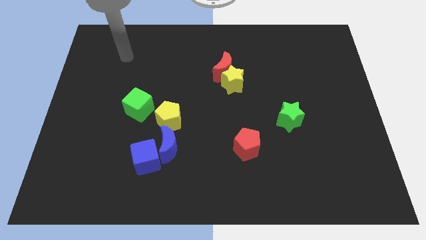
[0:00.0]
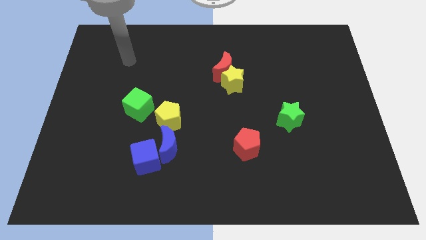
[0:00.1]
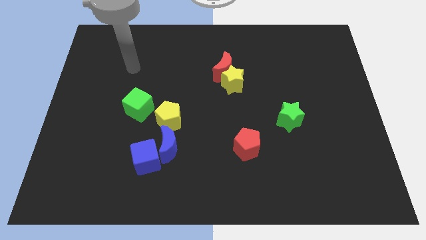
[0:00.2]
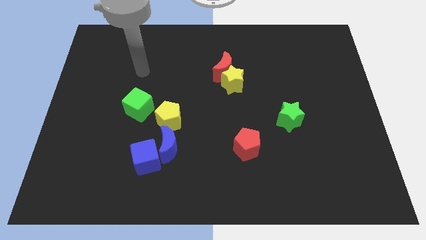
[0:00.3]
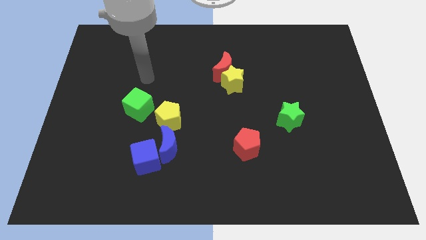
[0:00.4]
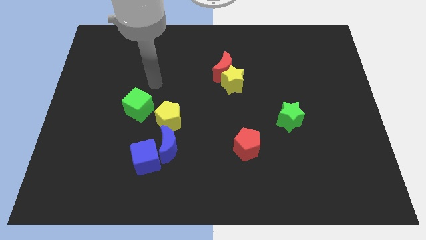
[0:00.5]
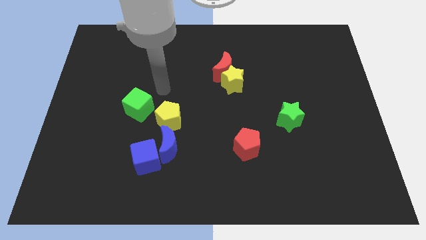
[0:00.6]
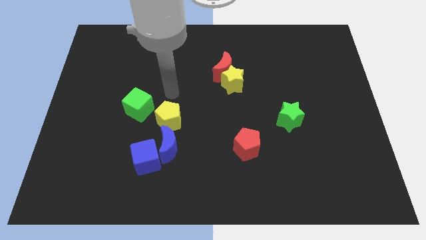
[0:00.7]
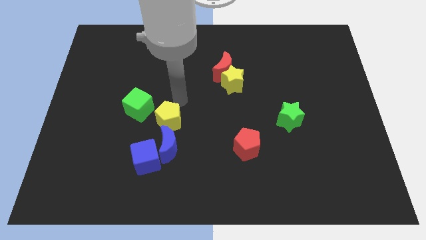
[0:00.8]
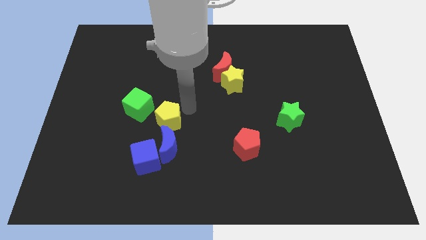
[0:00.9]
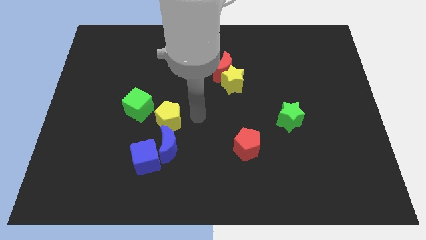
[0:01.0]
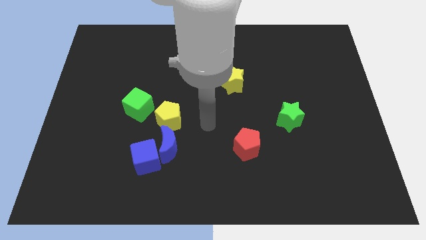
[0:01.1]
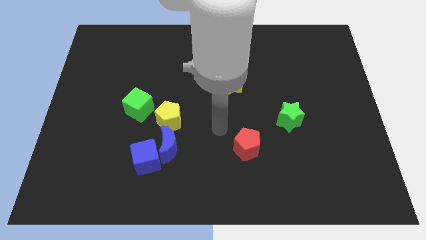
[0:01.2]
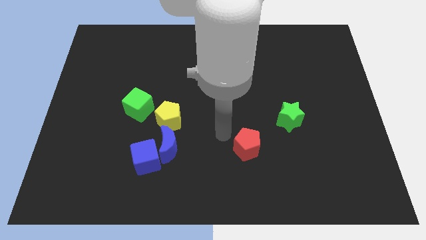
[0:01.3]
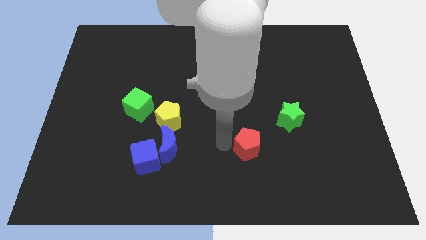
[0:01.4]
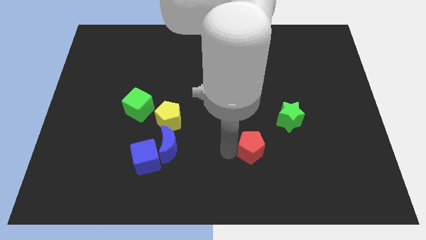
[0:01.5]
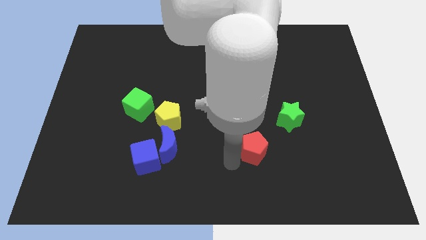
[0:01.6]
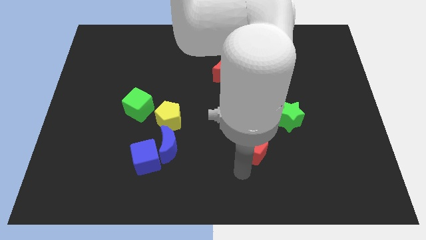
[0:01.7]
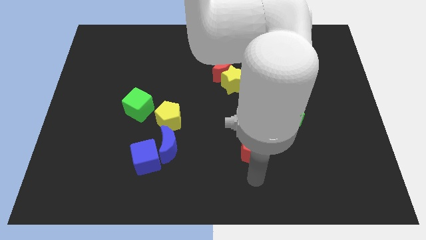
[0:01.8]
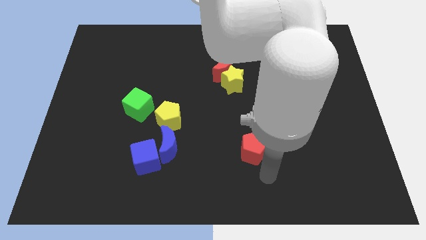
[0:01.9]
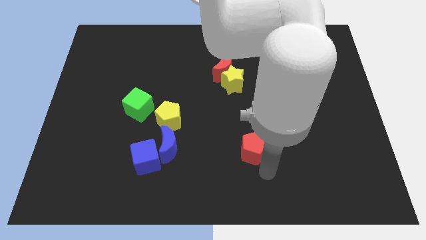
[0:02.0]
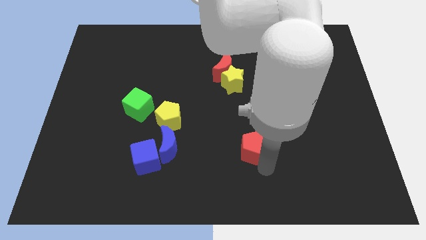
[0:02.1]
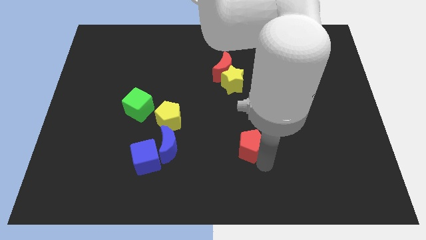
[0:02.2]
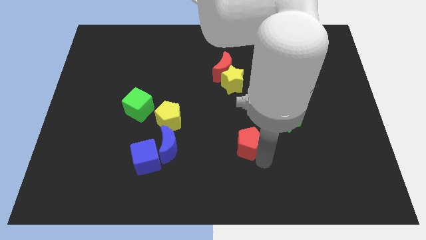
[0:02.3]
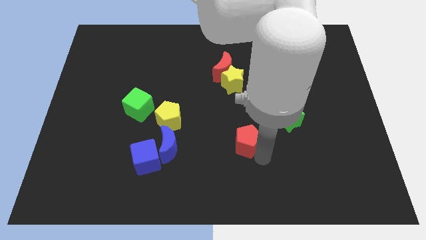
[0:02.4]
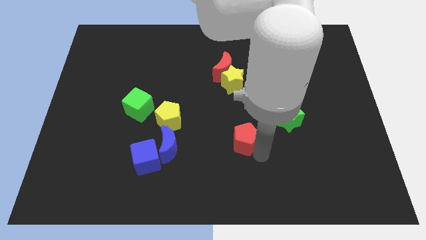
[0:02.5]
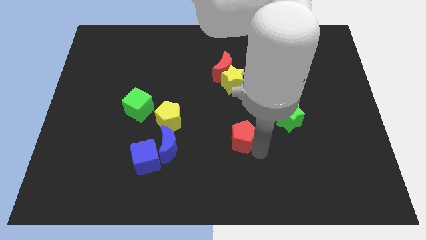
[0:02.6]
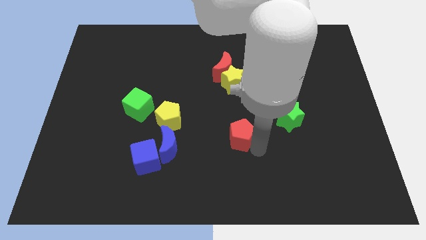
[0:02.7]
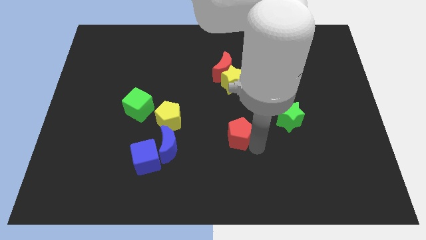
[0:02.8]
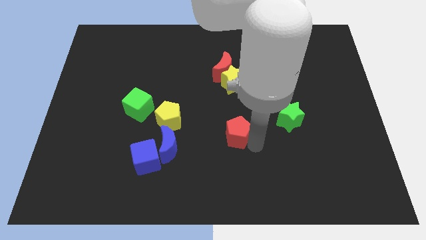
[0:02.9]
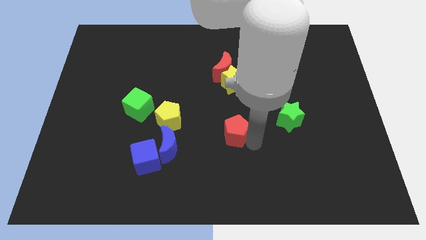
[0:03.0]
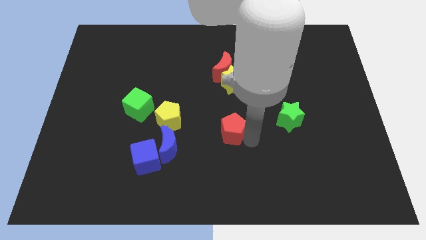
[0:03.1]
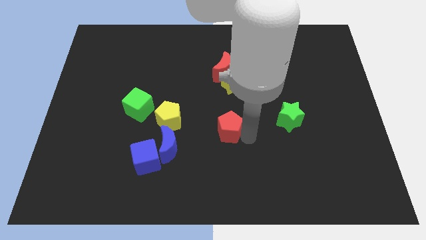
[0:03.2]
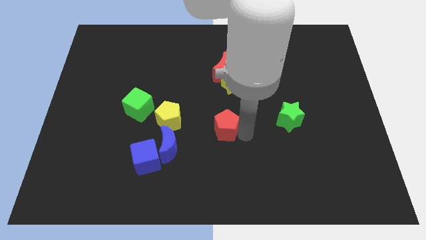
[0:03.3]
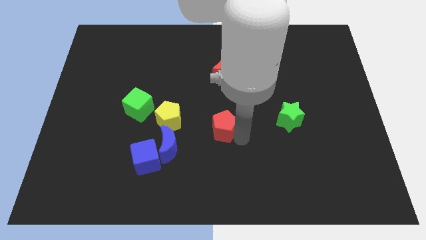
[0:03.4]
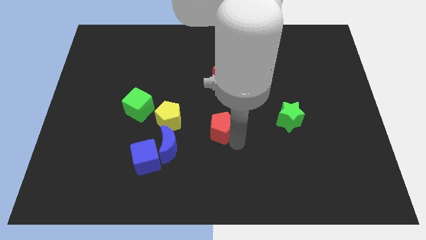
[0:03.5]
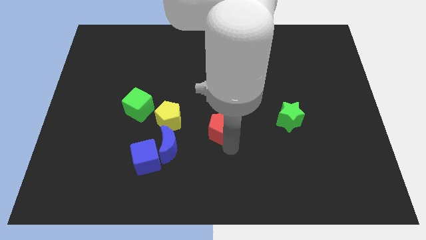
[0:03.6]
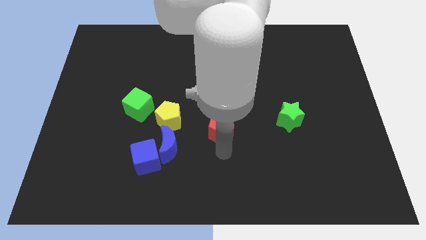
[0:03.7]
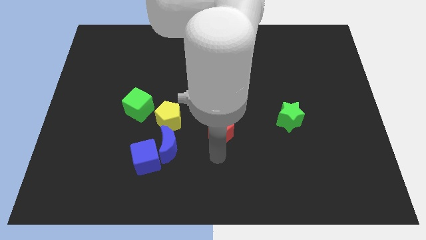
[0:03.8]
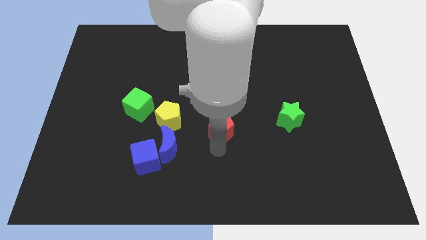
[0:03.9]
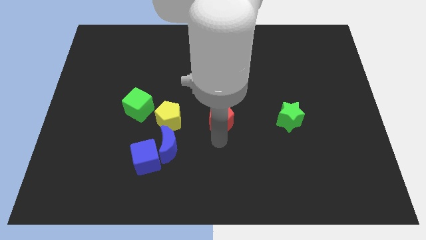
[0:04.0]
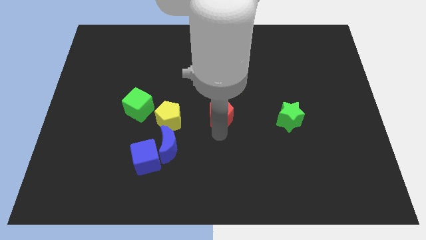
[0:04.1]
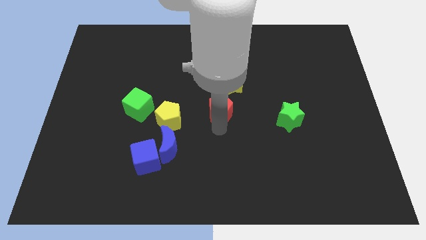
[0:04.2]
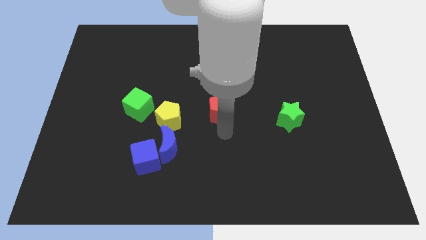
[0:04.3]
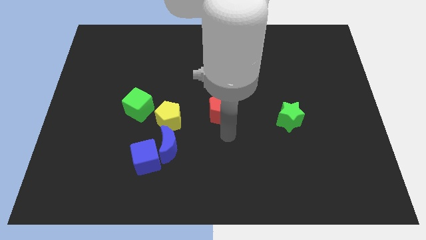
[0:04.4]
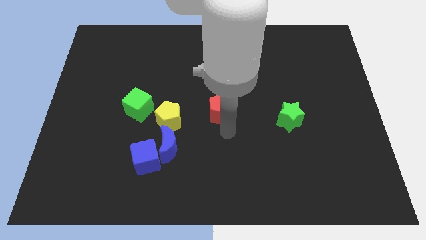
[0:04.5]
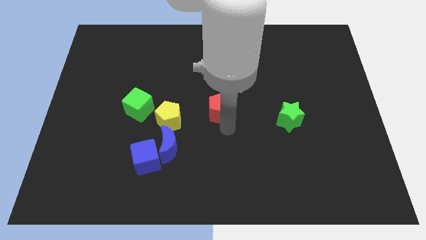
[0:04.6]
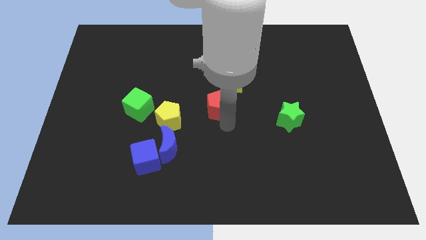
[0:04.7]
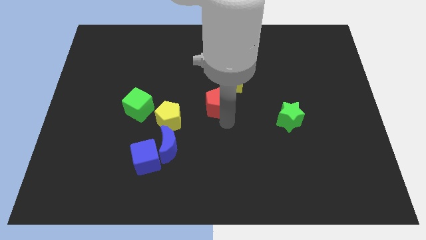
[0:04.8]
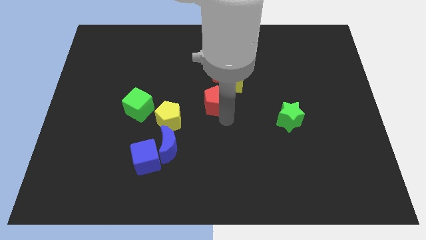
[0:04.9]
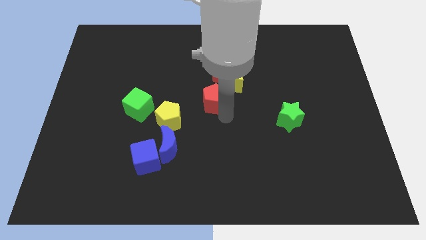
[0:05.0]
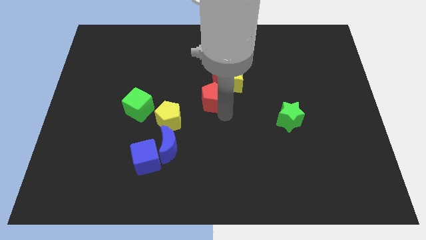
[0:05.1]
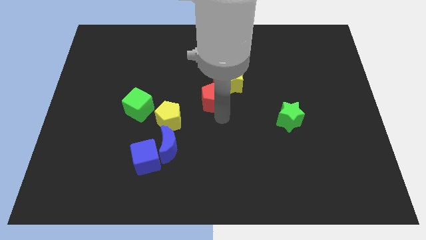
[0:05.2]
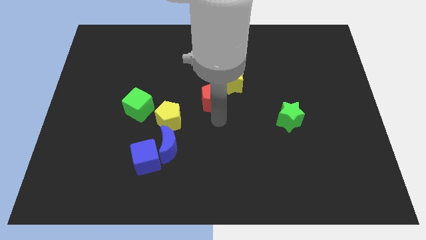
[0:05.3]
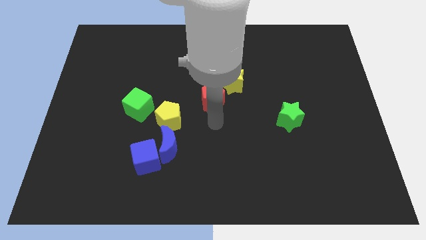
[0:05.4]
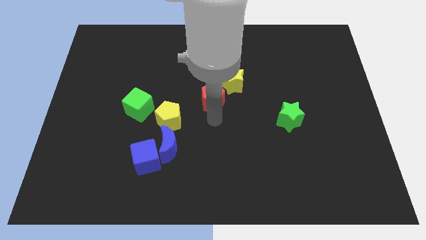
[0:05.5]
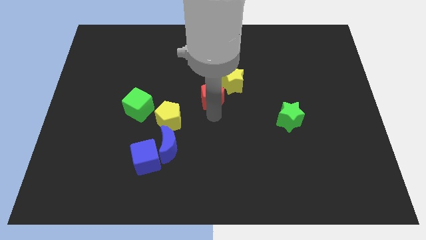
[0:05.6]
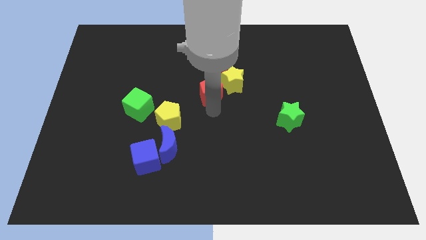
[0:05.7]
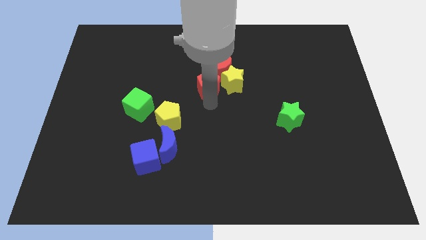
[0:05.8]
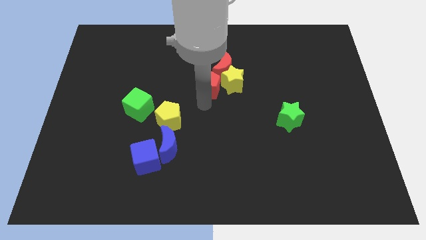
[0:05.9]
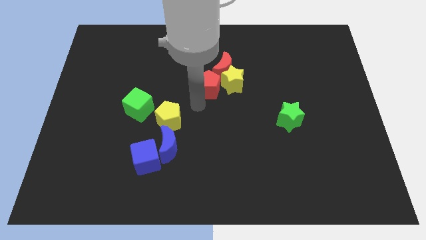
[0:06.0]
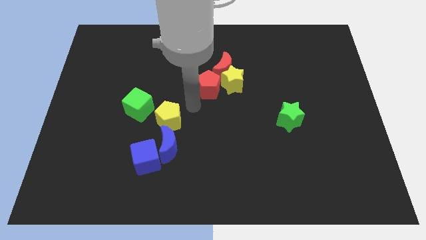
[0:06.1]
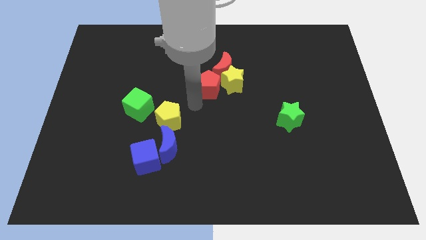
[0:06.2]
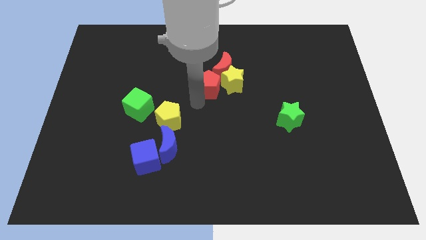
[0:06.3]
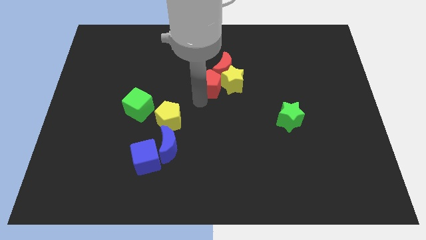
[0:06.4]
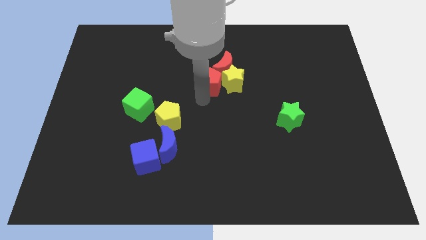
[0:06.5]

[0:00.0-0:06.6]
put the red pentagon close to the red moon

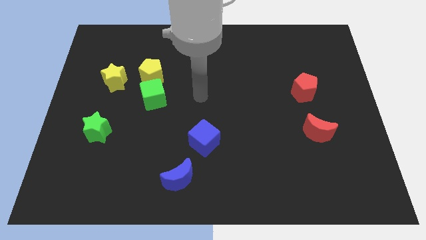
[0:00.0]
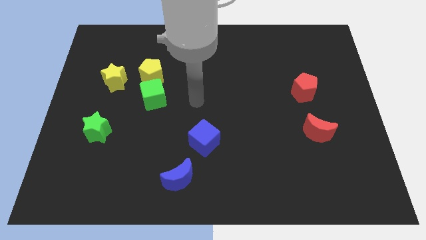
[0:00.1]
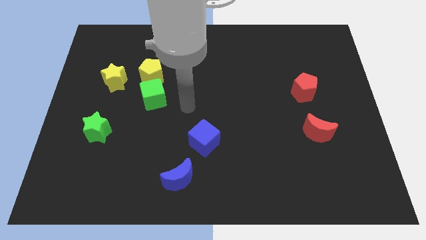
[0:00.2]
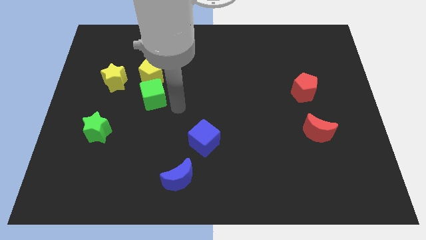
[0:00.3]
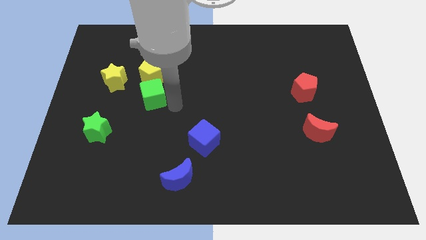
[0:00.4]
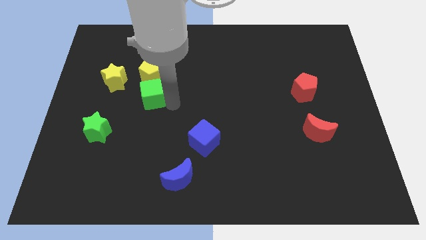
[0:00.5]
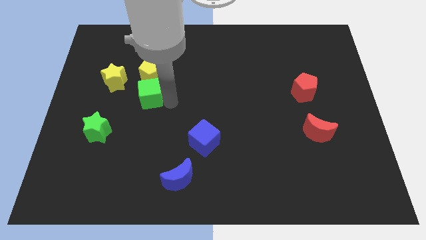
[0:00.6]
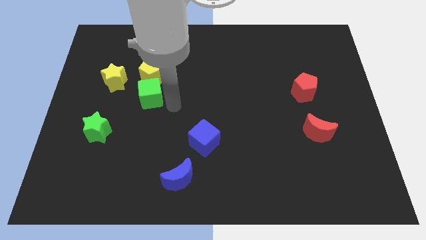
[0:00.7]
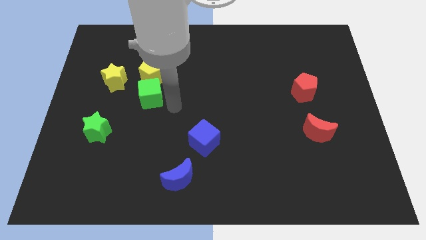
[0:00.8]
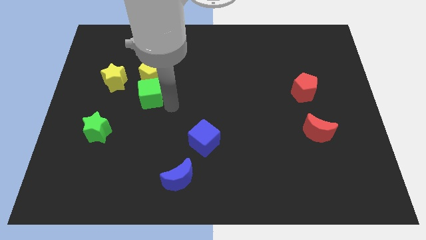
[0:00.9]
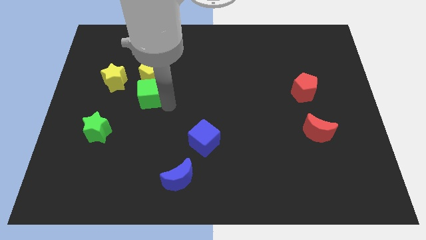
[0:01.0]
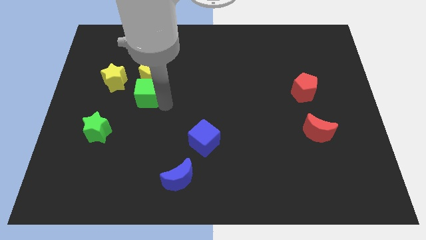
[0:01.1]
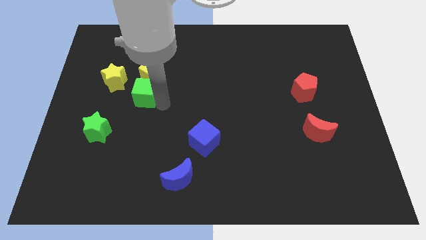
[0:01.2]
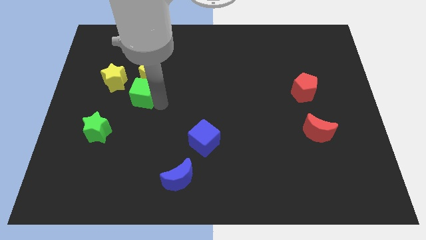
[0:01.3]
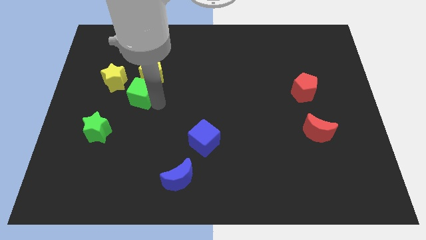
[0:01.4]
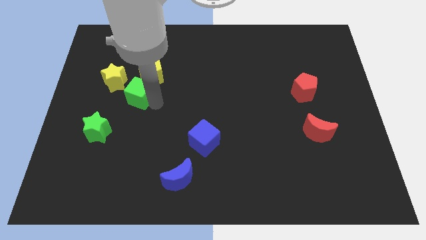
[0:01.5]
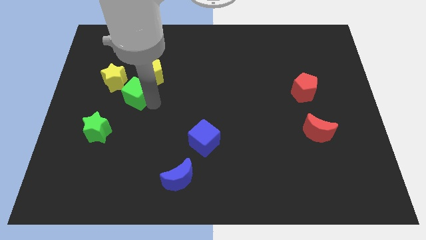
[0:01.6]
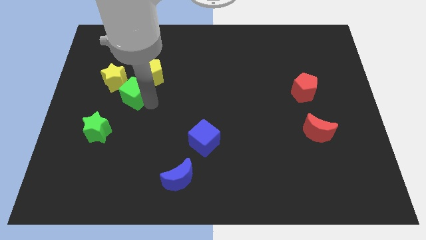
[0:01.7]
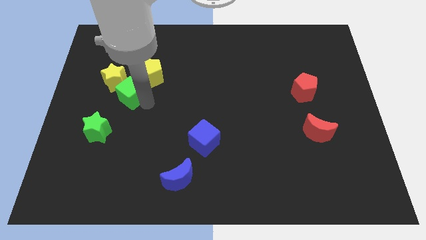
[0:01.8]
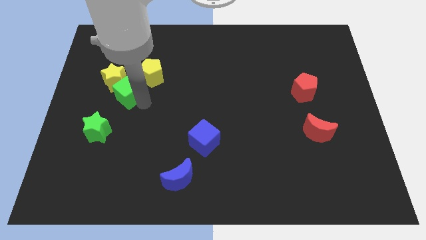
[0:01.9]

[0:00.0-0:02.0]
move the green cube towards the yellow star
